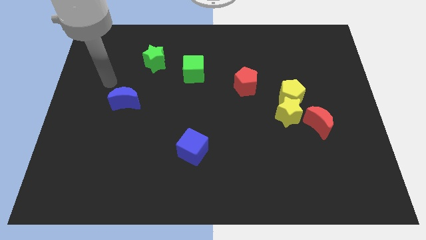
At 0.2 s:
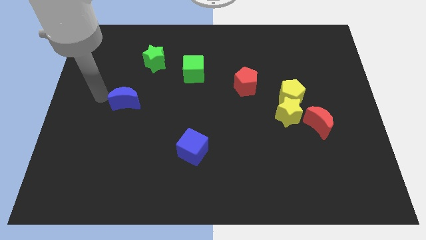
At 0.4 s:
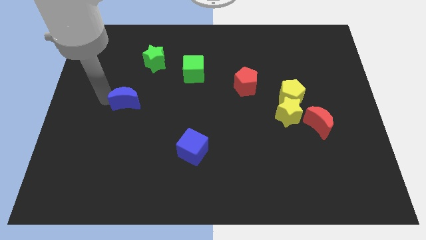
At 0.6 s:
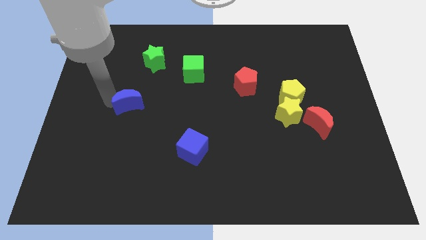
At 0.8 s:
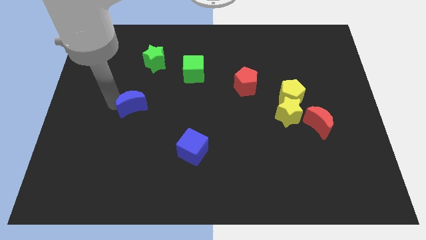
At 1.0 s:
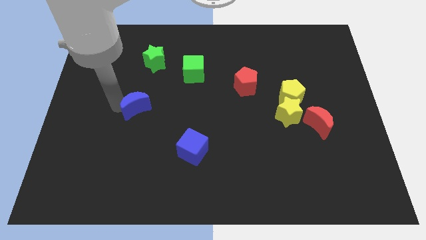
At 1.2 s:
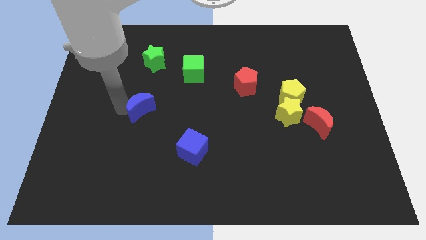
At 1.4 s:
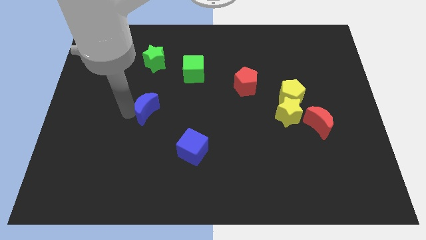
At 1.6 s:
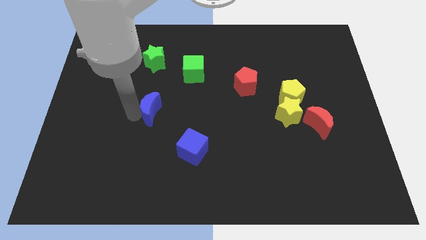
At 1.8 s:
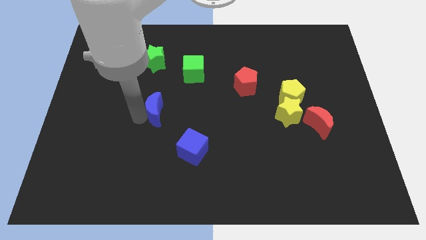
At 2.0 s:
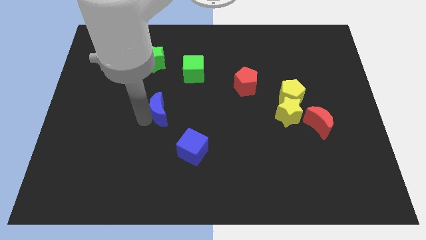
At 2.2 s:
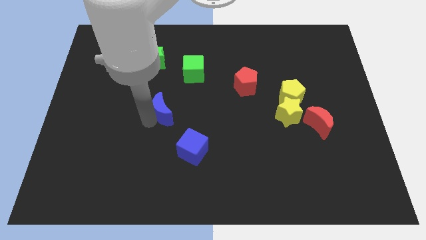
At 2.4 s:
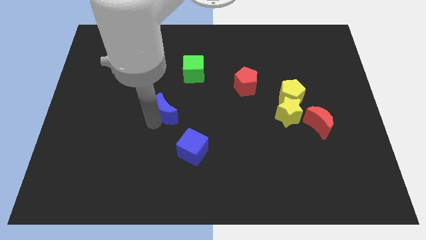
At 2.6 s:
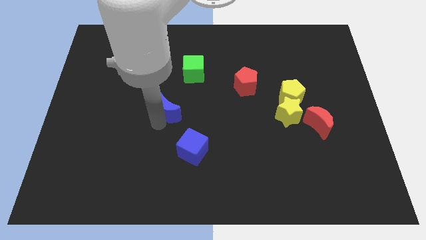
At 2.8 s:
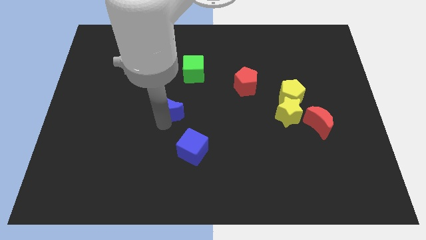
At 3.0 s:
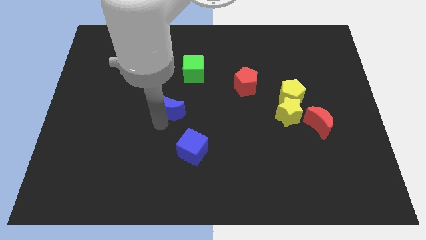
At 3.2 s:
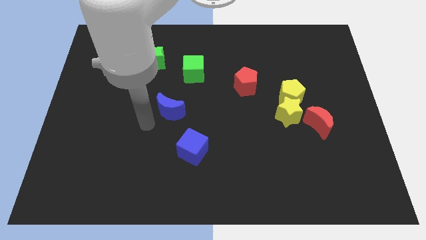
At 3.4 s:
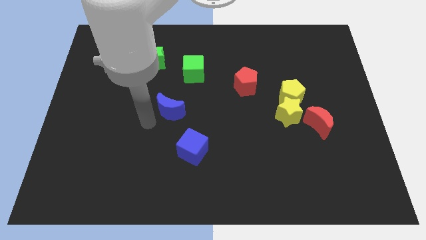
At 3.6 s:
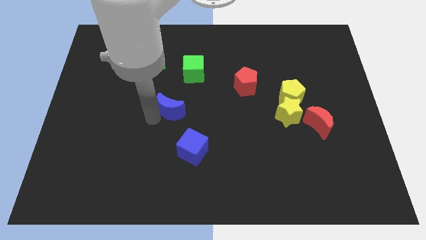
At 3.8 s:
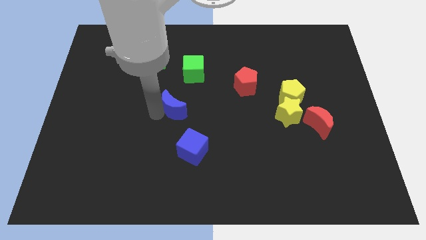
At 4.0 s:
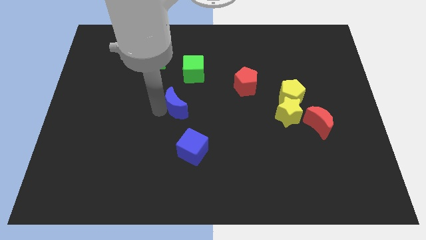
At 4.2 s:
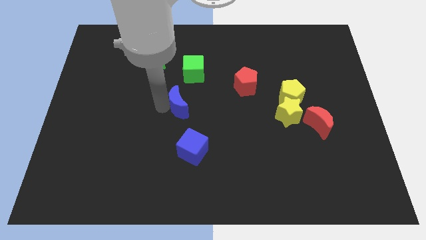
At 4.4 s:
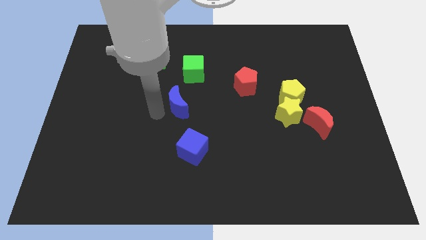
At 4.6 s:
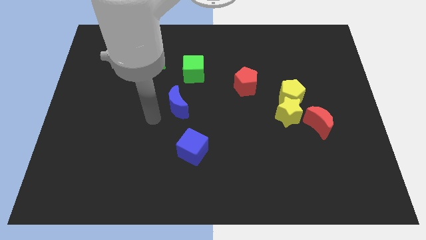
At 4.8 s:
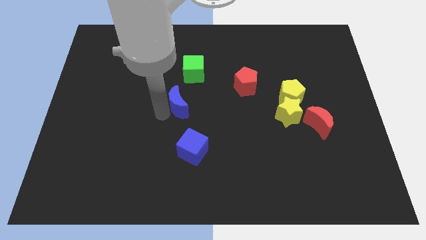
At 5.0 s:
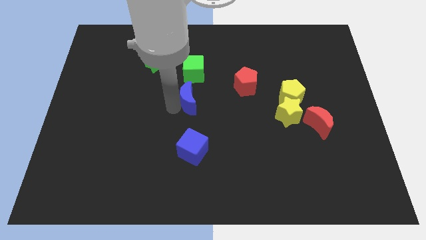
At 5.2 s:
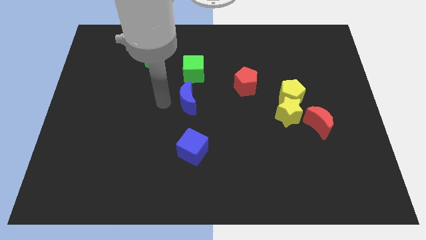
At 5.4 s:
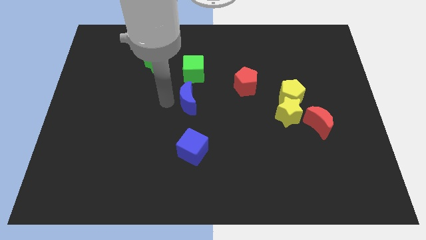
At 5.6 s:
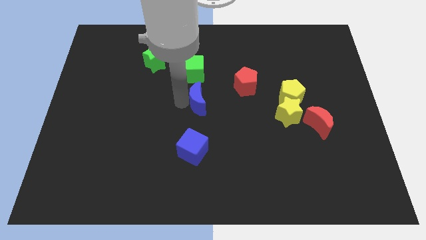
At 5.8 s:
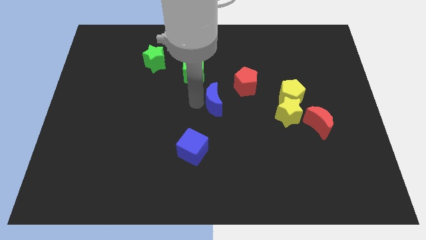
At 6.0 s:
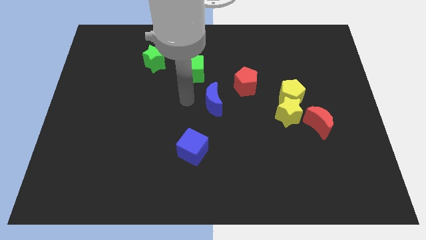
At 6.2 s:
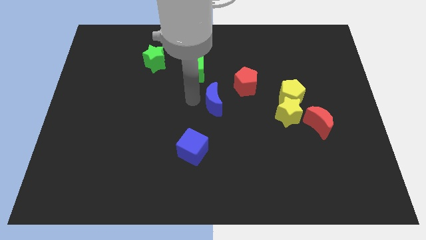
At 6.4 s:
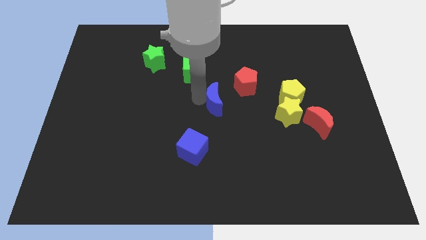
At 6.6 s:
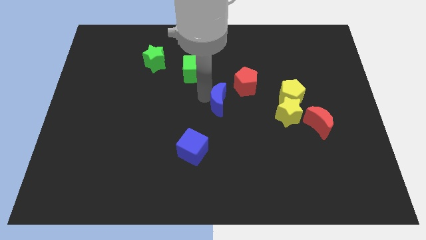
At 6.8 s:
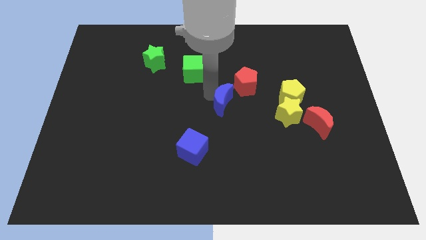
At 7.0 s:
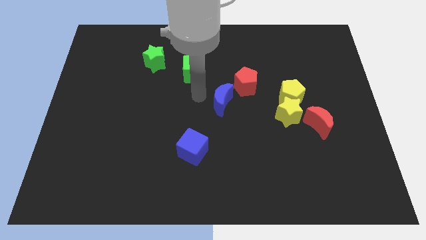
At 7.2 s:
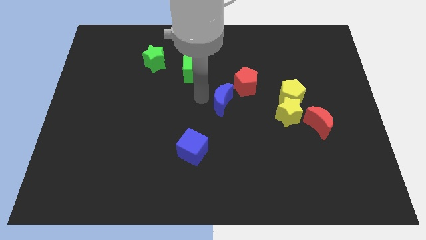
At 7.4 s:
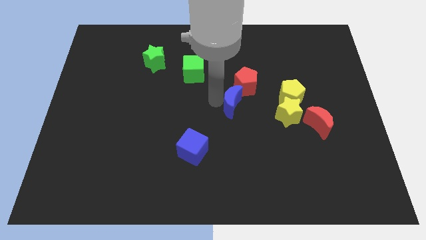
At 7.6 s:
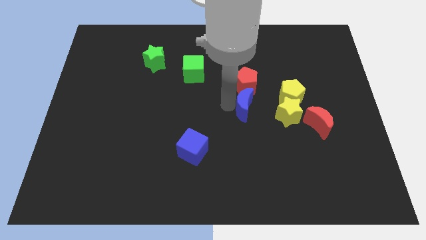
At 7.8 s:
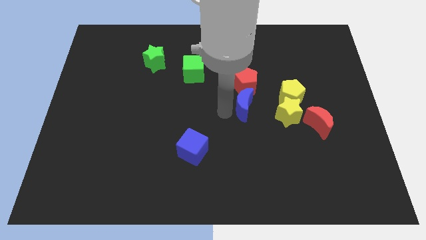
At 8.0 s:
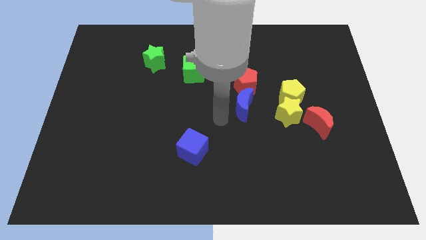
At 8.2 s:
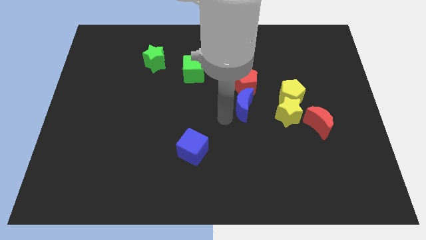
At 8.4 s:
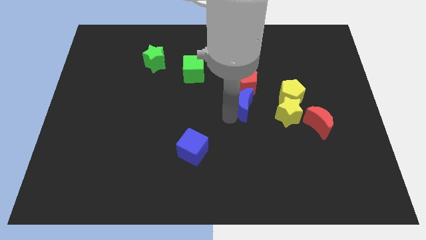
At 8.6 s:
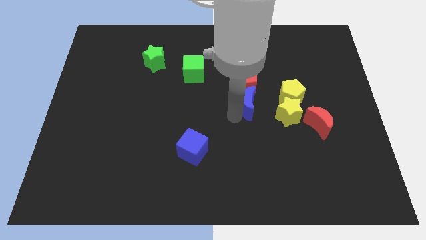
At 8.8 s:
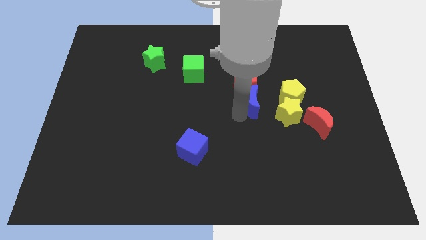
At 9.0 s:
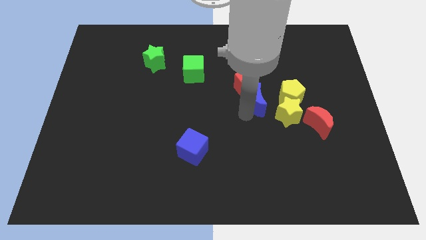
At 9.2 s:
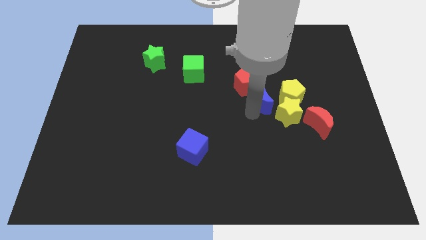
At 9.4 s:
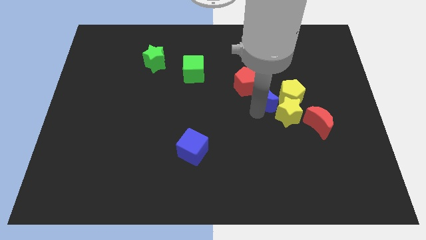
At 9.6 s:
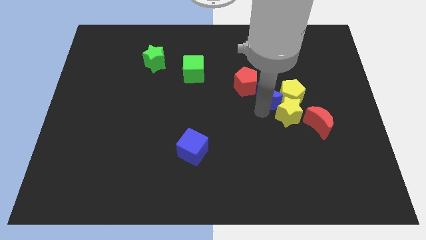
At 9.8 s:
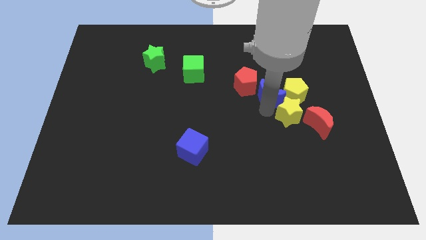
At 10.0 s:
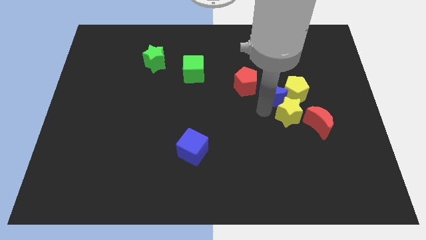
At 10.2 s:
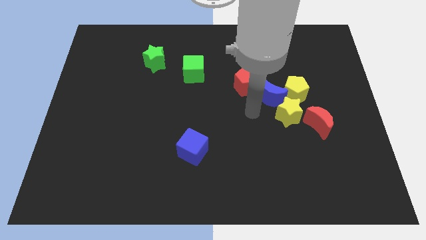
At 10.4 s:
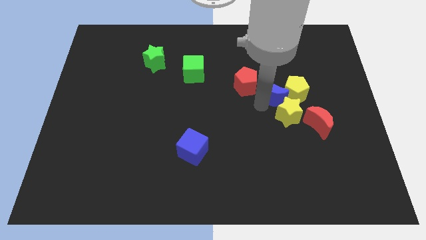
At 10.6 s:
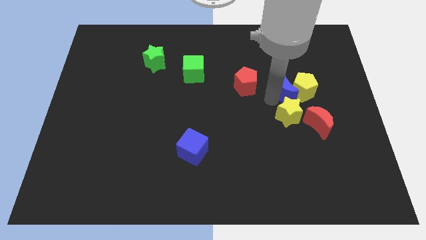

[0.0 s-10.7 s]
put the blue moon diagonally up and to the right of the yellow star

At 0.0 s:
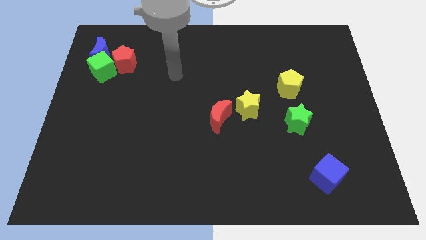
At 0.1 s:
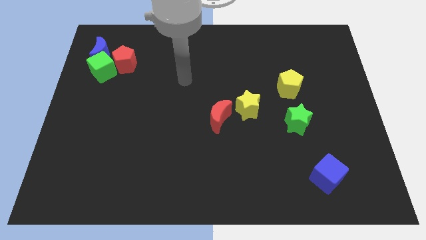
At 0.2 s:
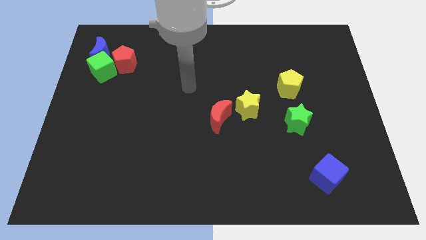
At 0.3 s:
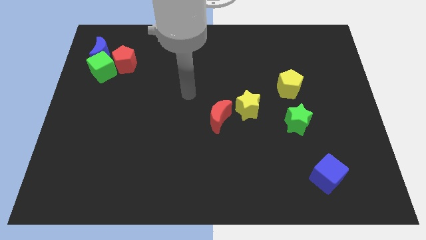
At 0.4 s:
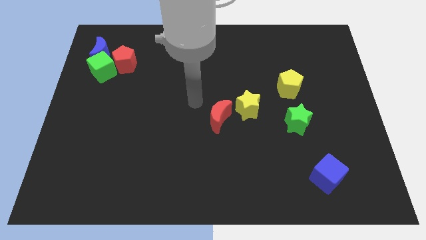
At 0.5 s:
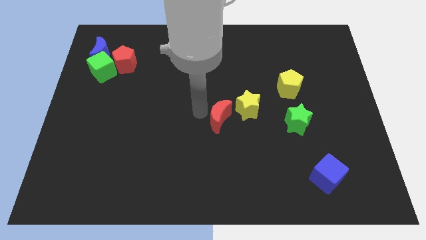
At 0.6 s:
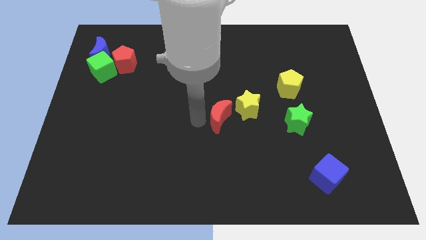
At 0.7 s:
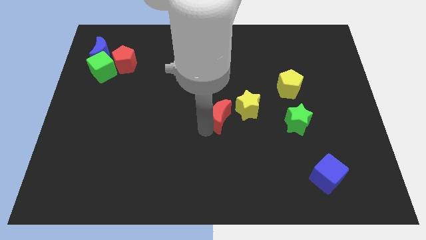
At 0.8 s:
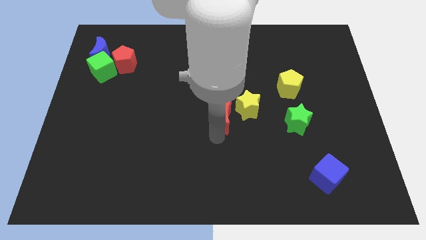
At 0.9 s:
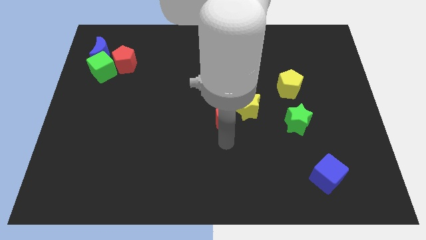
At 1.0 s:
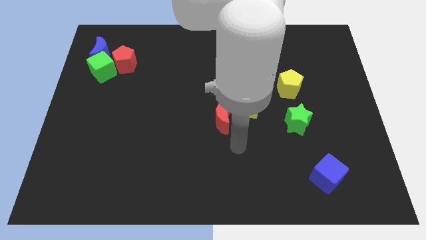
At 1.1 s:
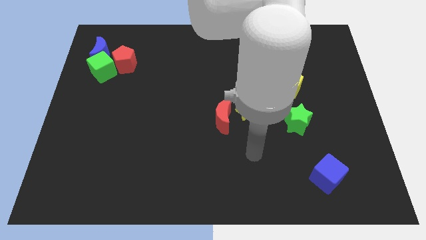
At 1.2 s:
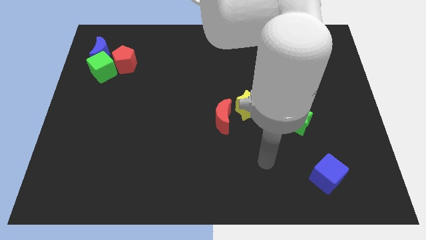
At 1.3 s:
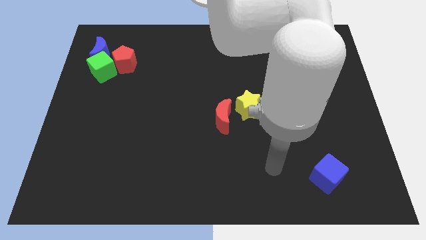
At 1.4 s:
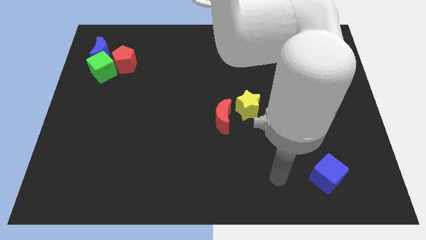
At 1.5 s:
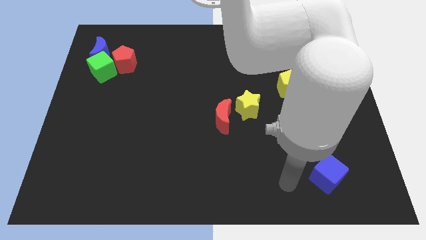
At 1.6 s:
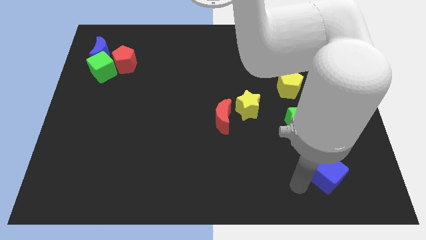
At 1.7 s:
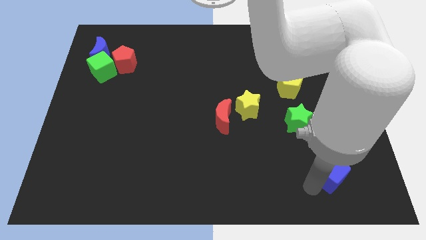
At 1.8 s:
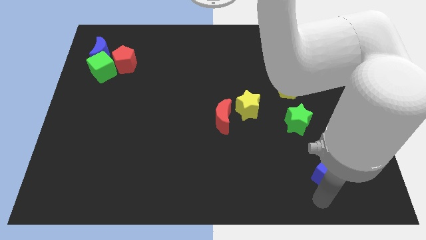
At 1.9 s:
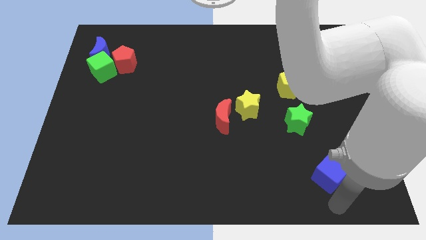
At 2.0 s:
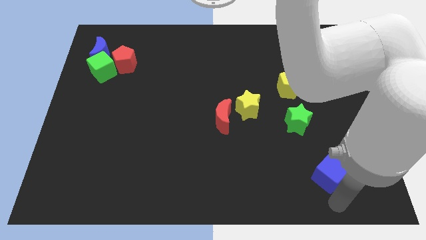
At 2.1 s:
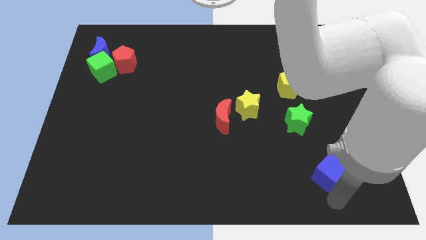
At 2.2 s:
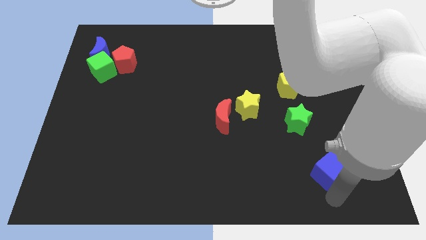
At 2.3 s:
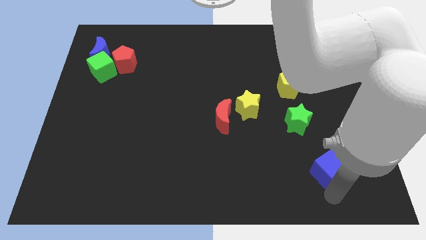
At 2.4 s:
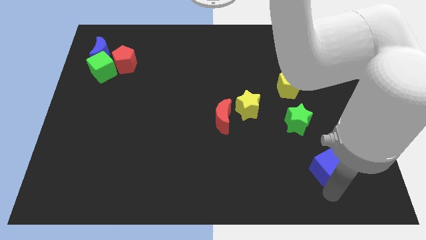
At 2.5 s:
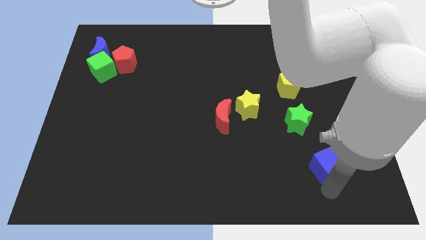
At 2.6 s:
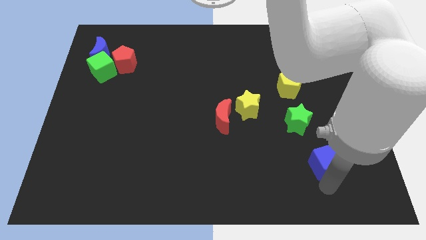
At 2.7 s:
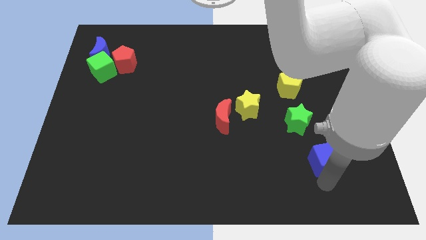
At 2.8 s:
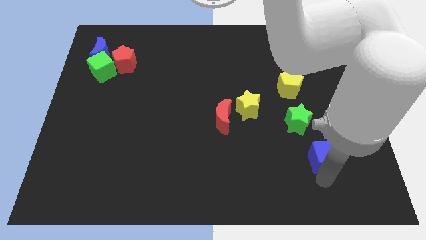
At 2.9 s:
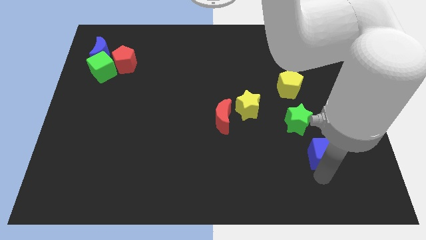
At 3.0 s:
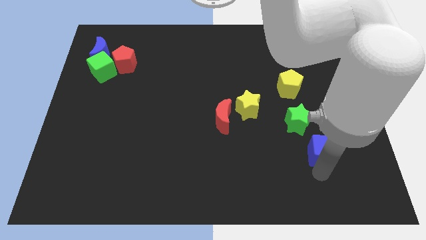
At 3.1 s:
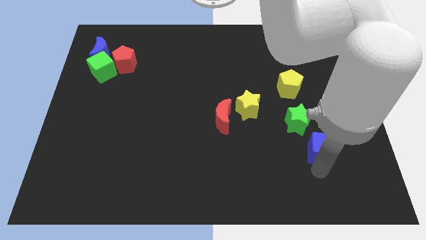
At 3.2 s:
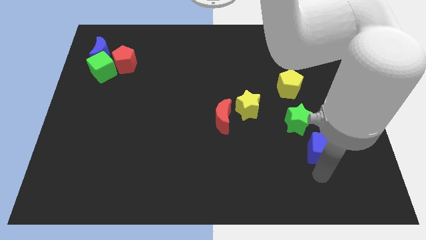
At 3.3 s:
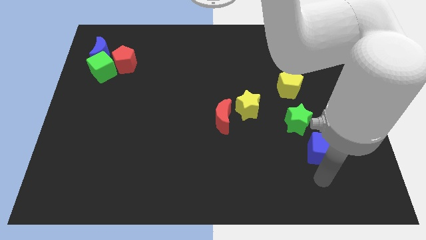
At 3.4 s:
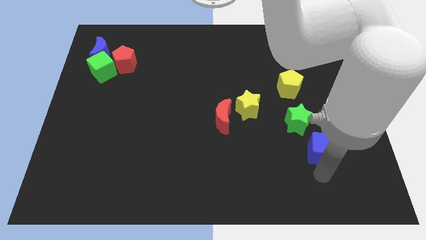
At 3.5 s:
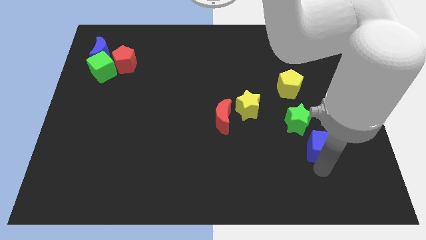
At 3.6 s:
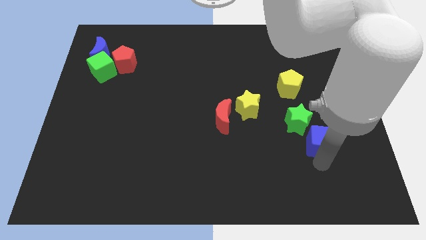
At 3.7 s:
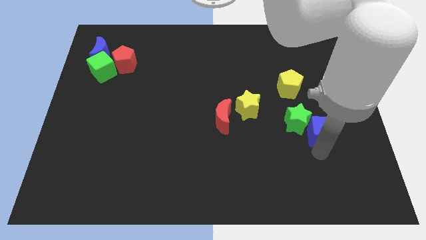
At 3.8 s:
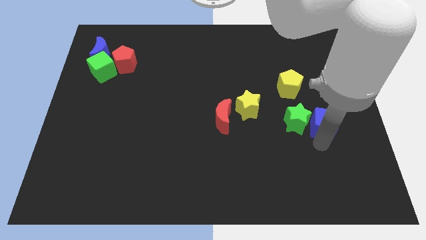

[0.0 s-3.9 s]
put the blue cube diagonally up and to the right of the green star
